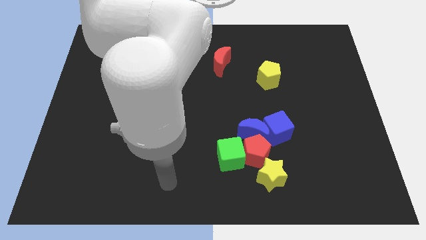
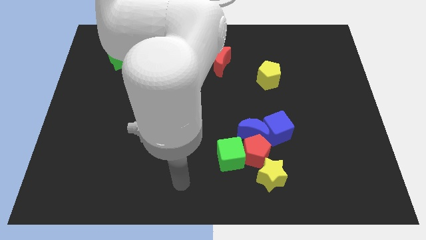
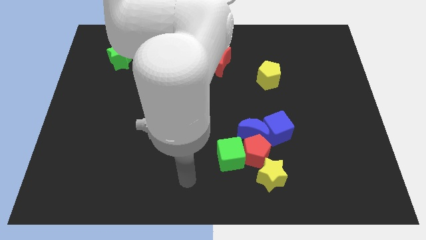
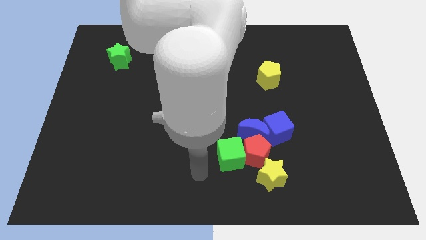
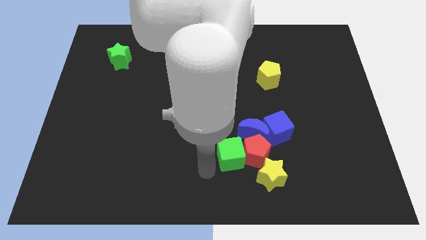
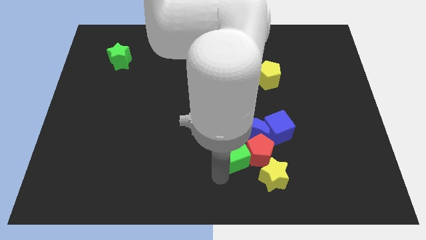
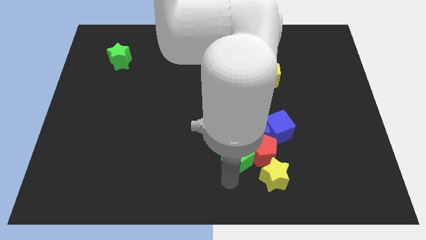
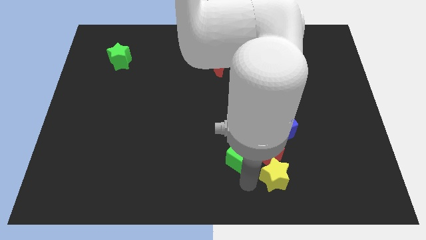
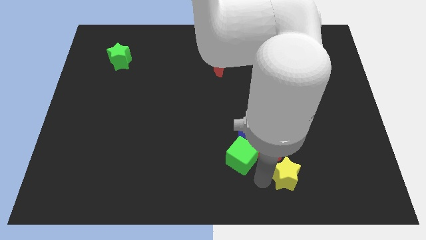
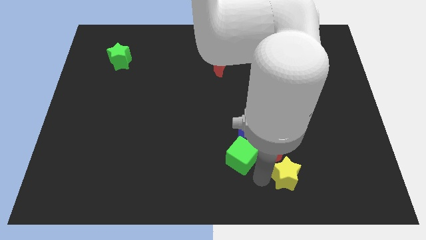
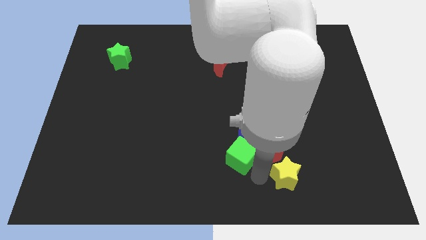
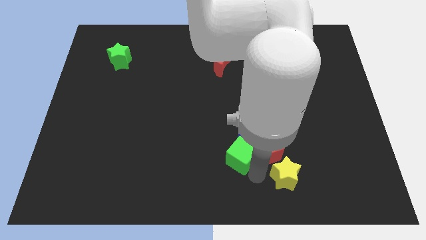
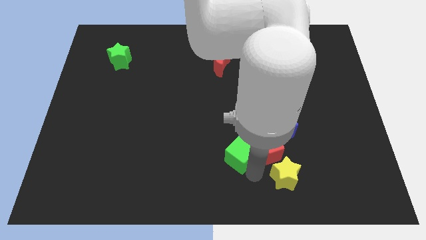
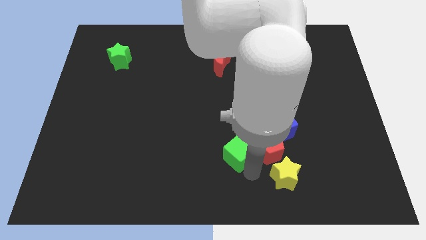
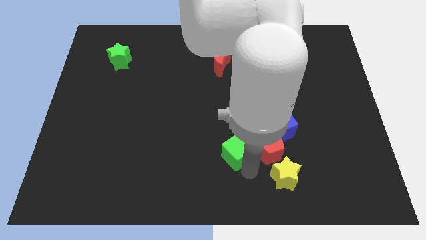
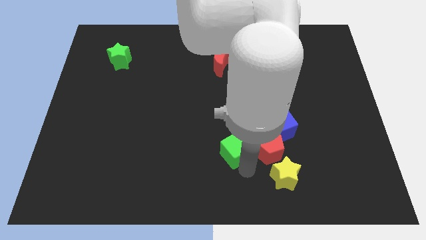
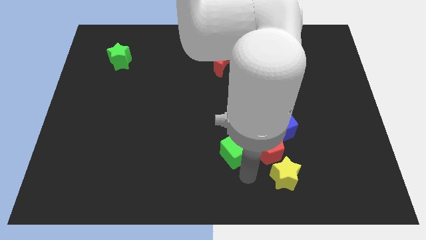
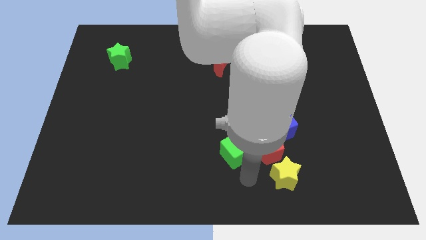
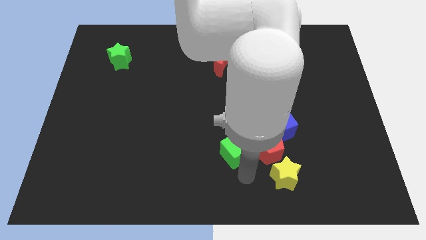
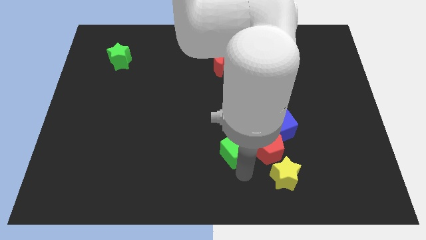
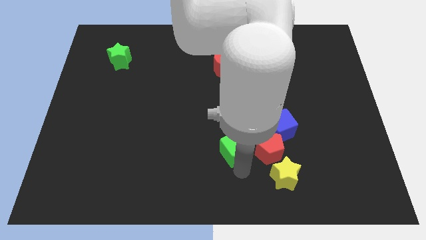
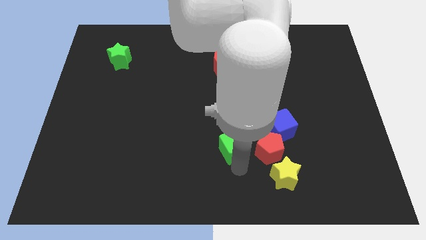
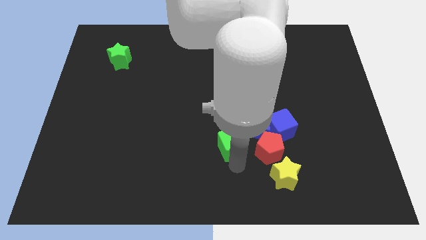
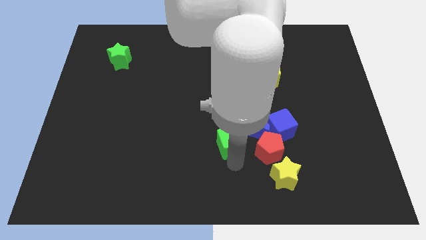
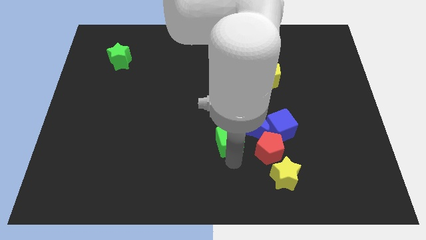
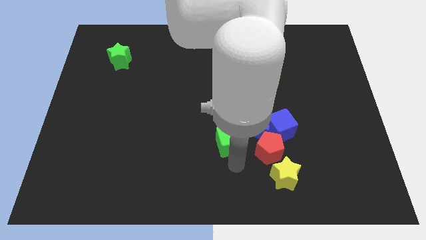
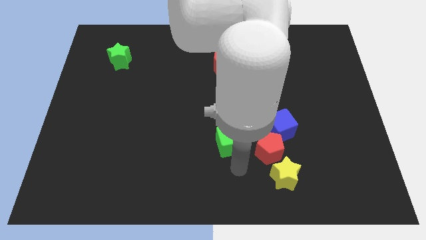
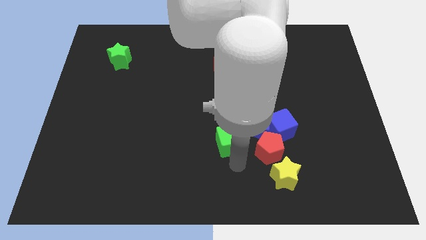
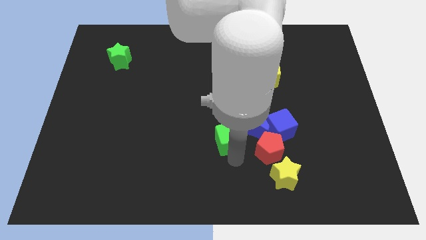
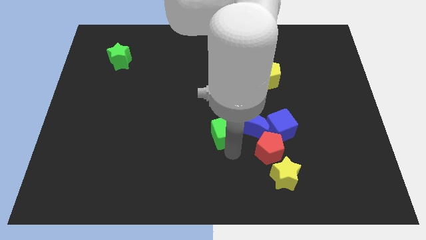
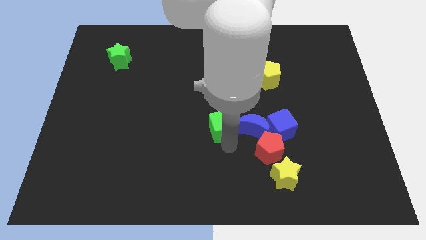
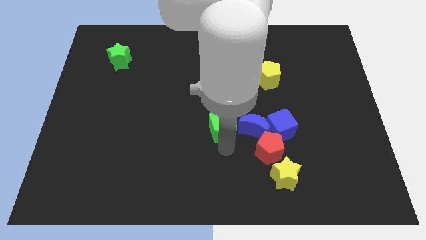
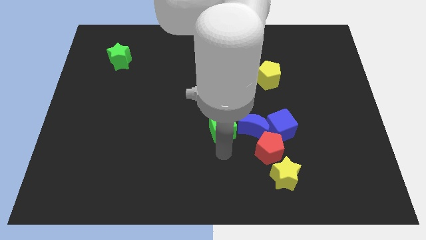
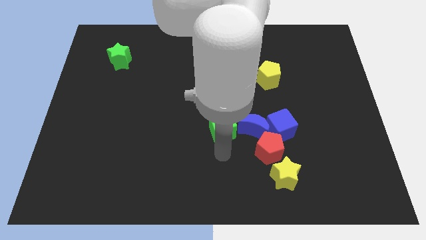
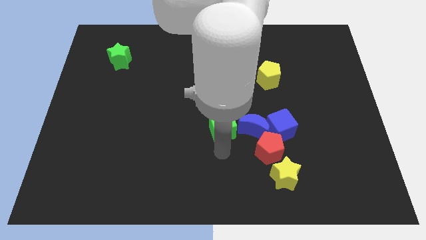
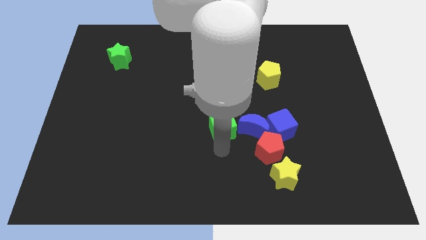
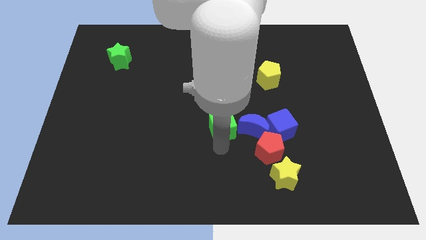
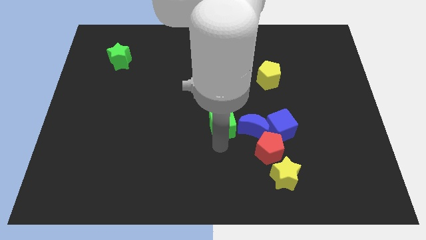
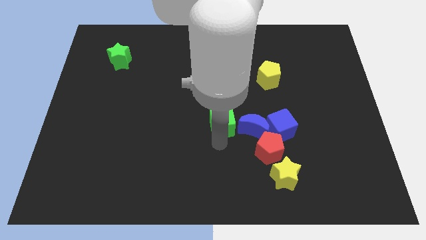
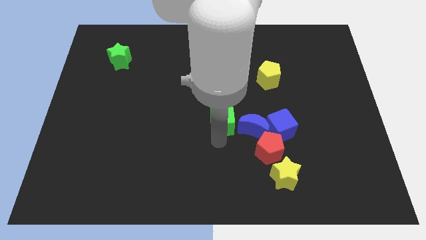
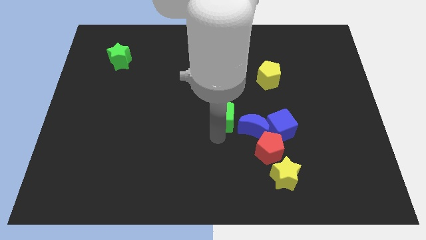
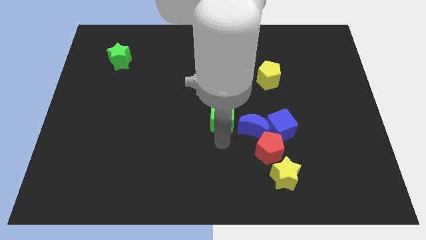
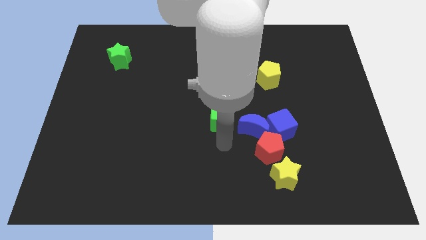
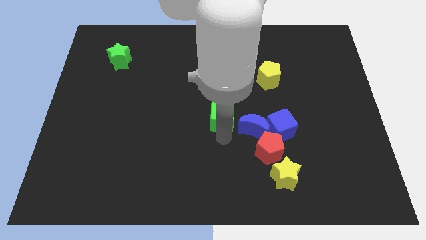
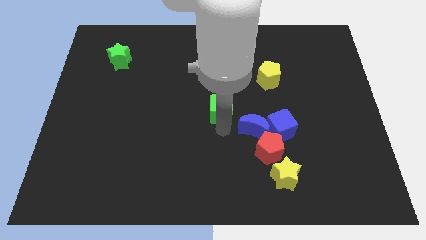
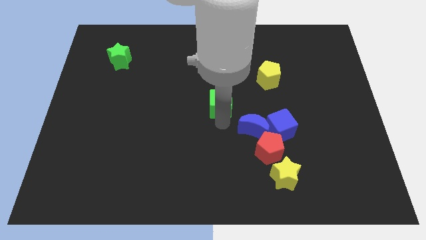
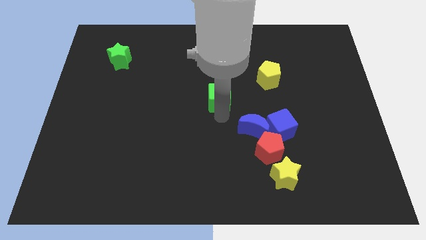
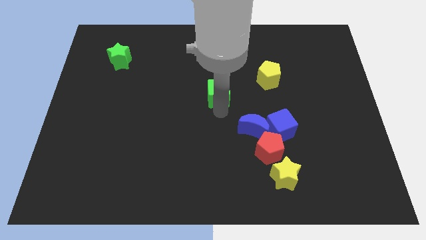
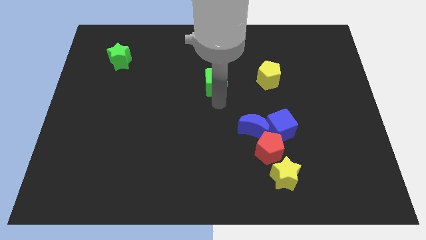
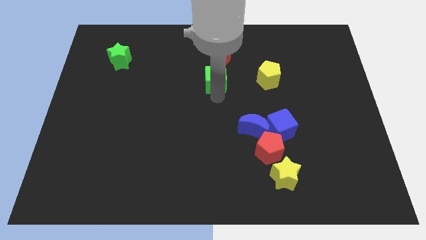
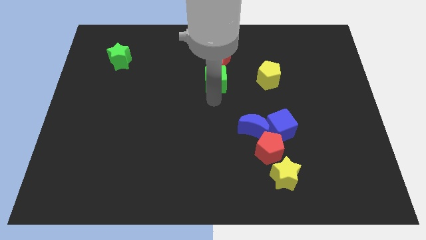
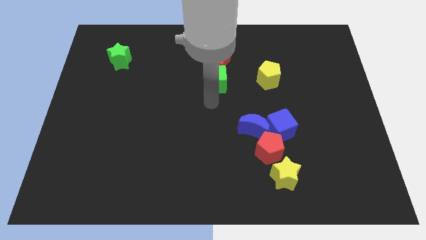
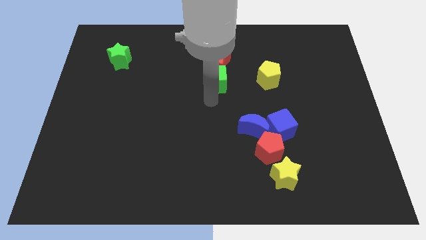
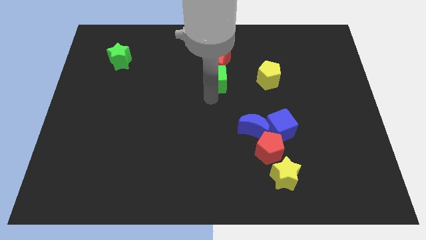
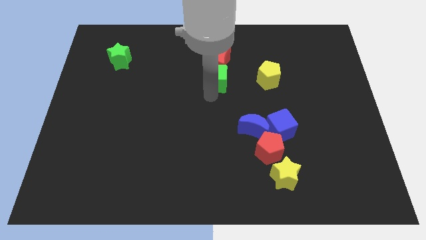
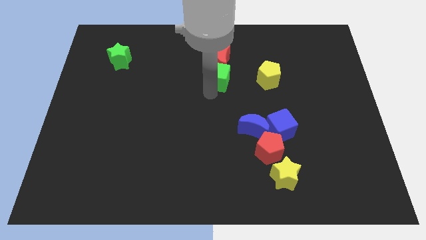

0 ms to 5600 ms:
move the green cube close to the red moon

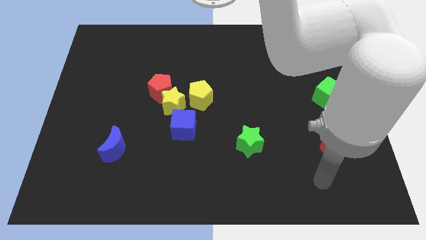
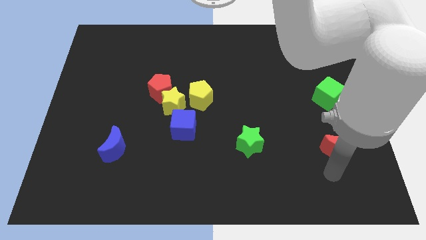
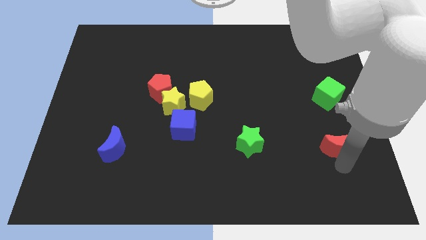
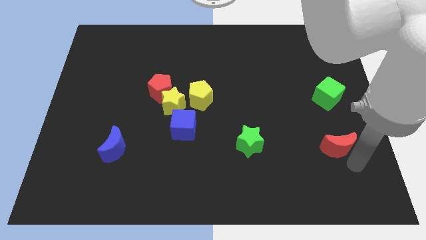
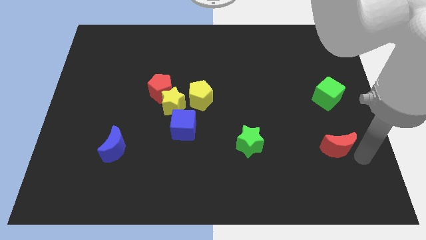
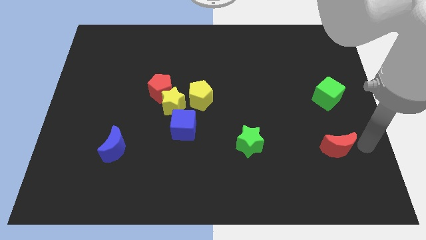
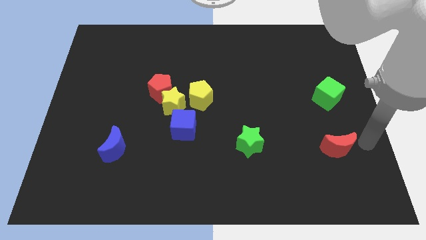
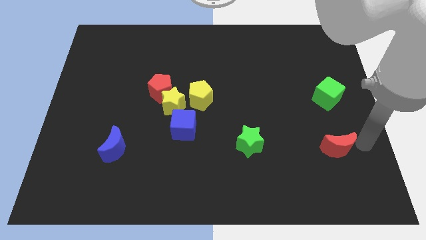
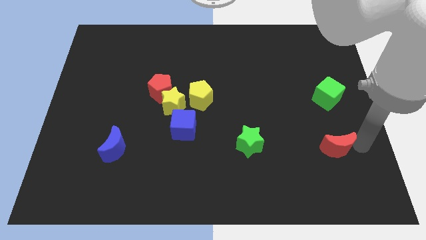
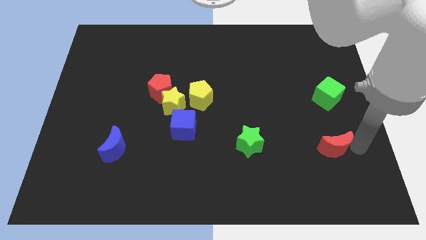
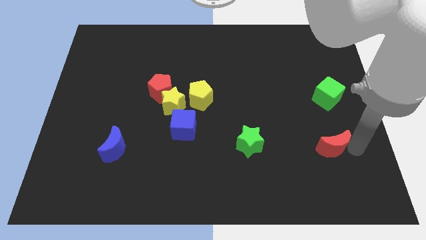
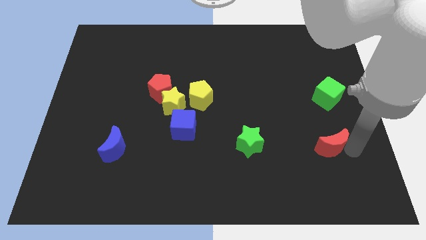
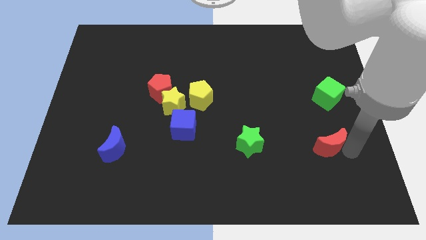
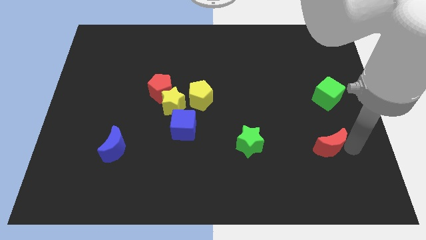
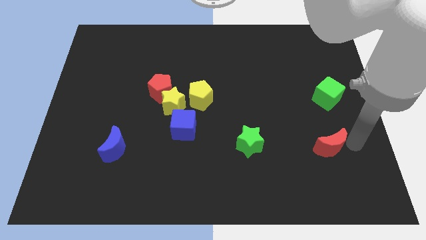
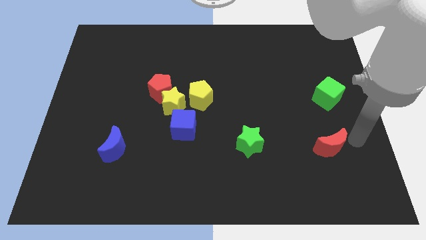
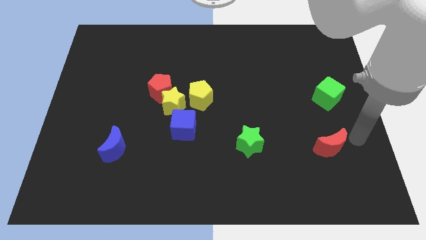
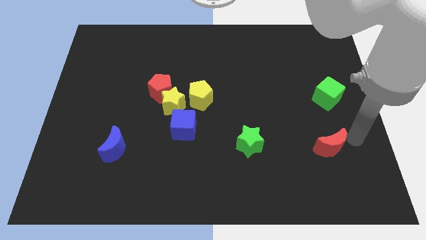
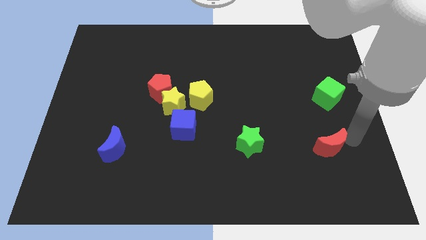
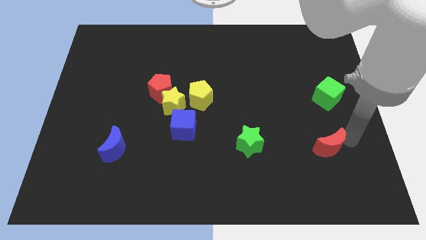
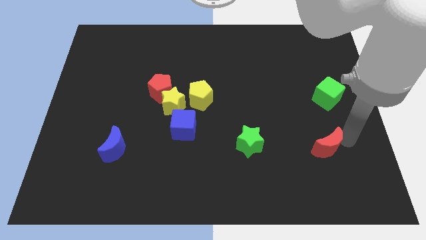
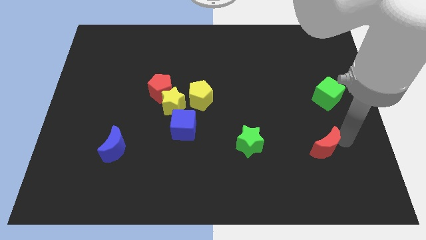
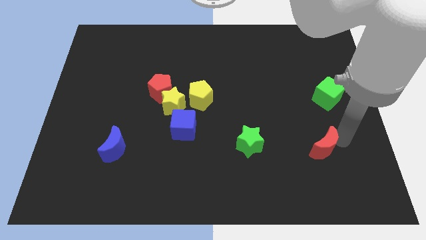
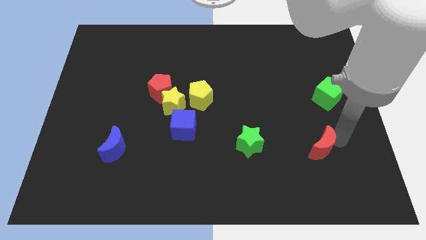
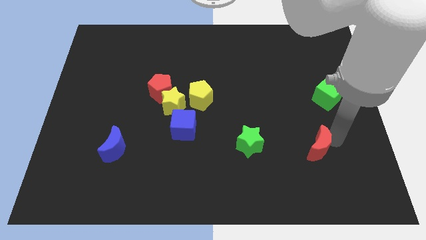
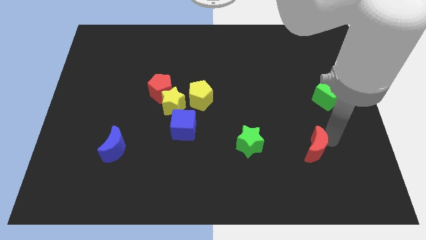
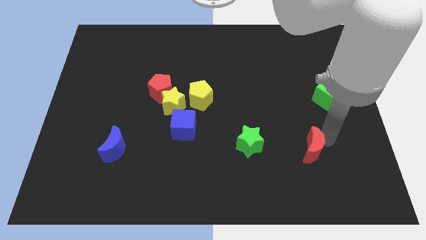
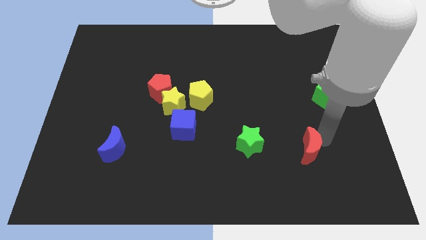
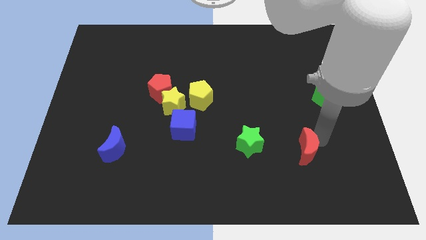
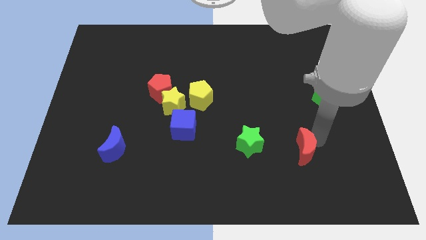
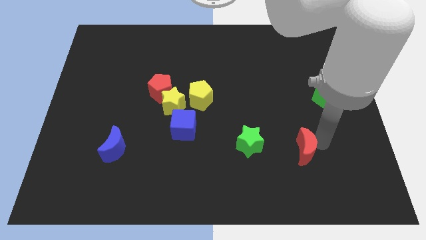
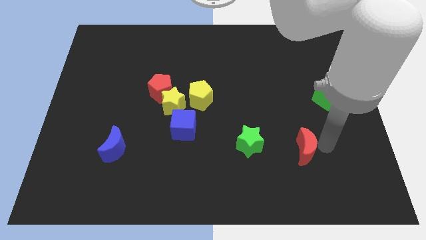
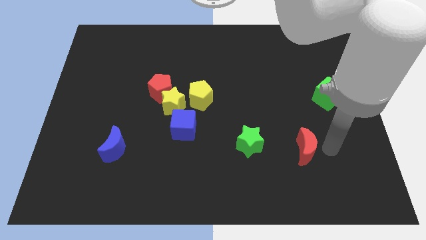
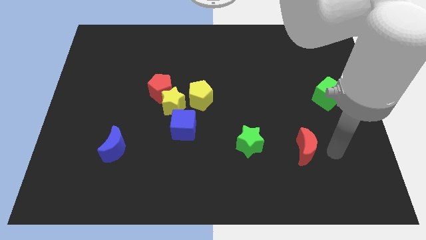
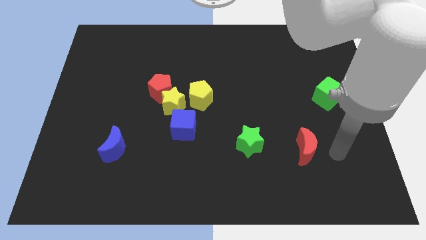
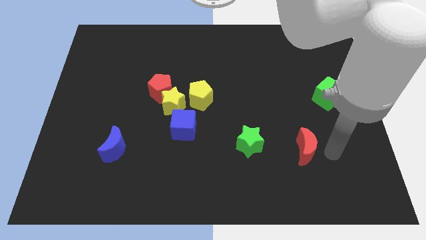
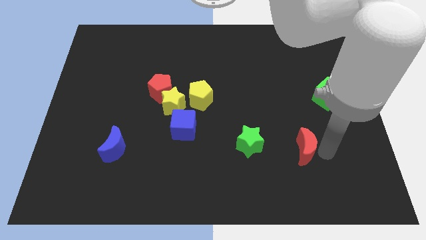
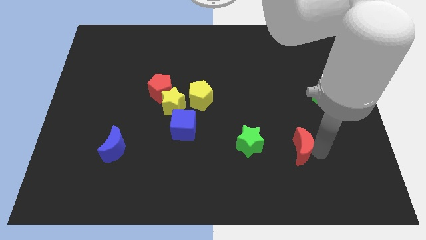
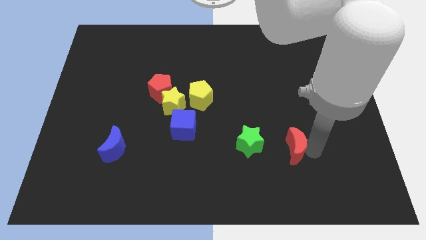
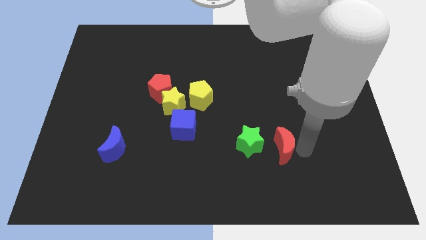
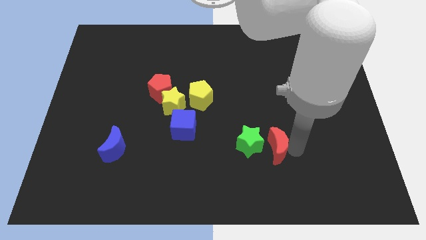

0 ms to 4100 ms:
push the red moon towards the green star
